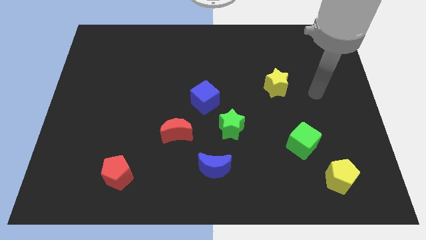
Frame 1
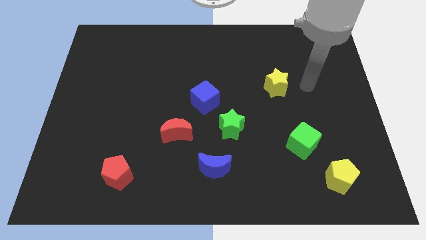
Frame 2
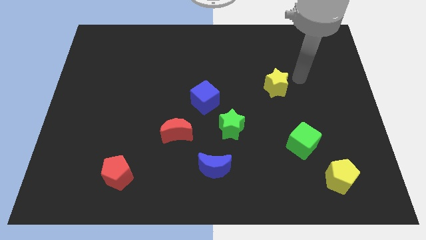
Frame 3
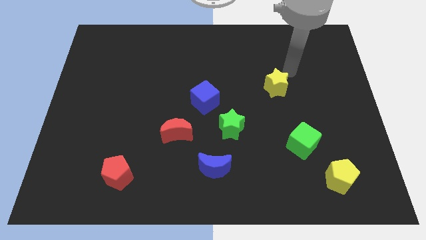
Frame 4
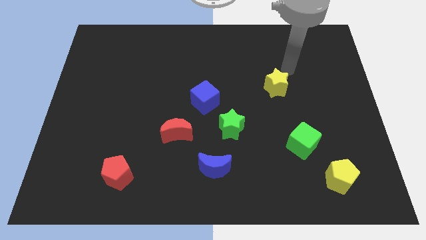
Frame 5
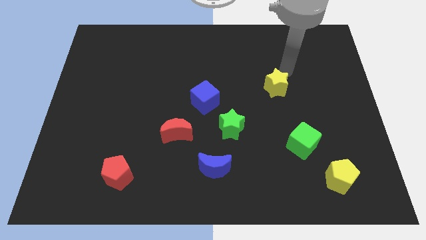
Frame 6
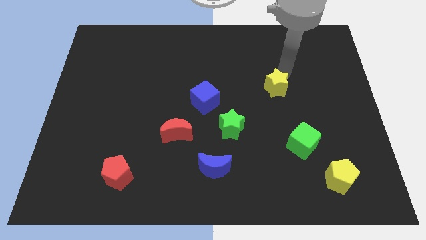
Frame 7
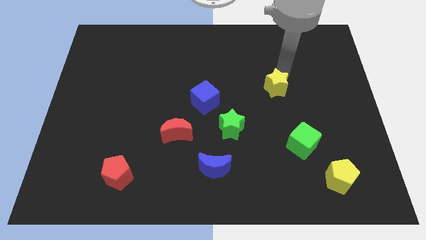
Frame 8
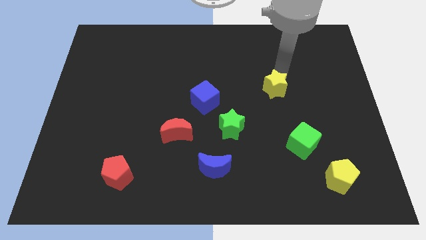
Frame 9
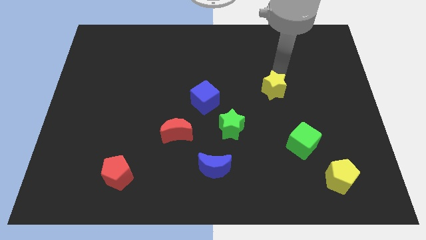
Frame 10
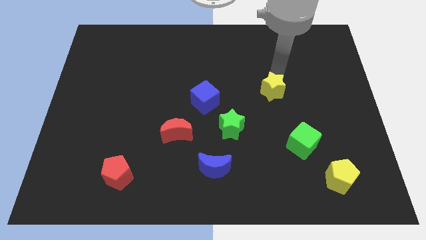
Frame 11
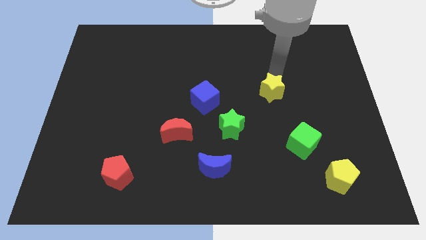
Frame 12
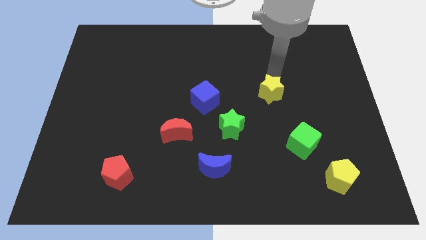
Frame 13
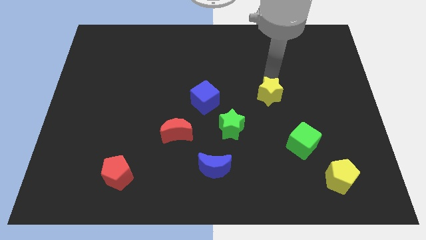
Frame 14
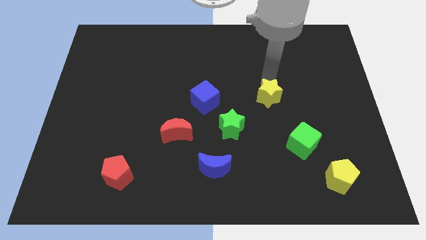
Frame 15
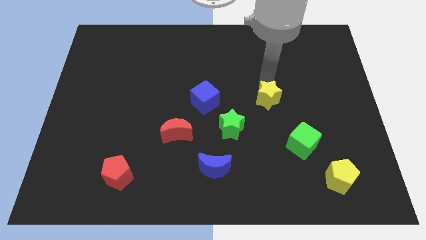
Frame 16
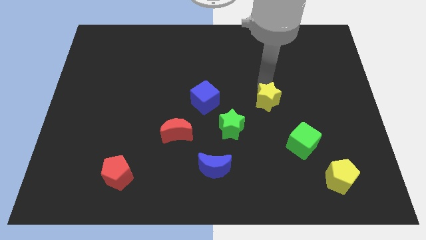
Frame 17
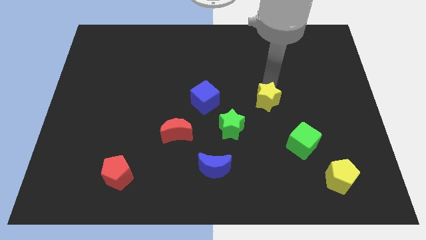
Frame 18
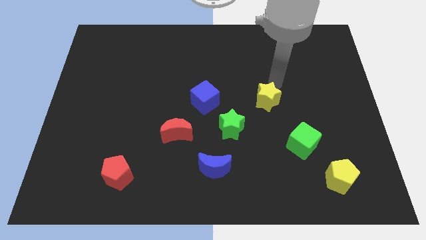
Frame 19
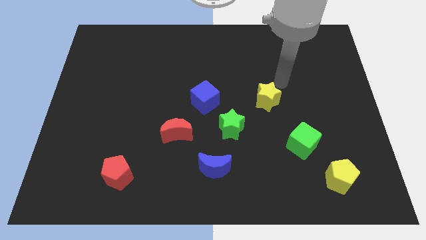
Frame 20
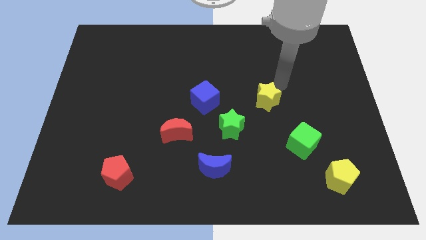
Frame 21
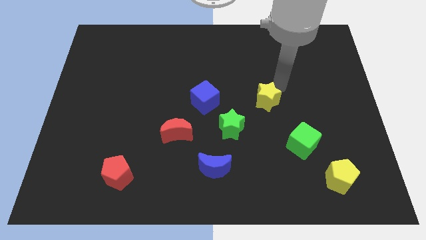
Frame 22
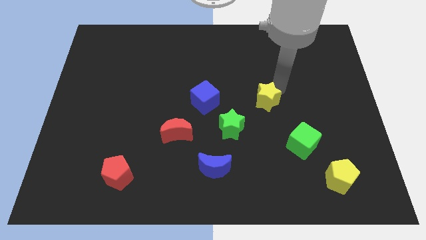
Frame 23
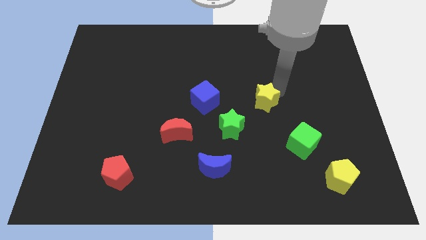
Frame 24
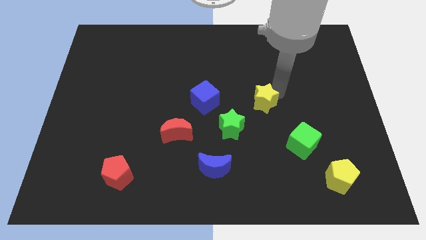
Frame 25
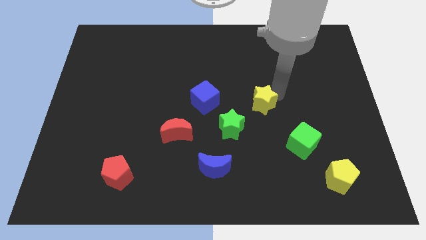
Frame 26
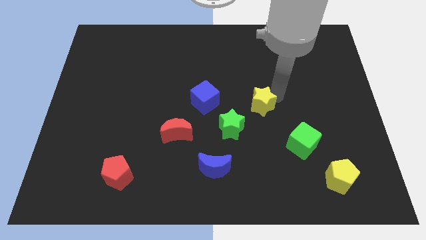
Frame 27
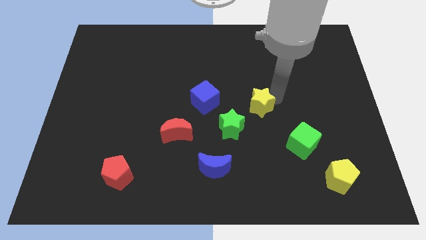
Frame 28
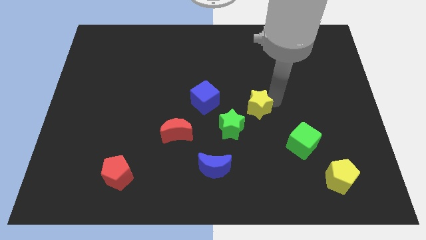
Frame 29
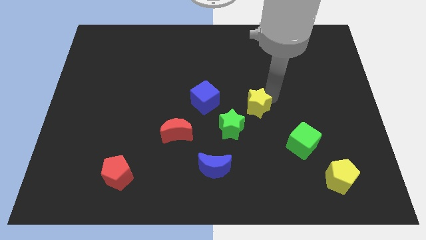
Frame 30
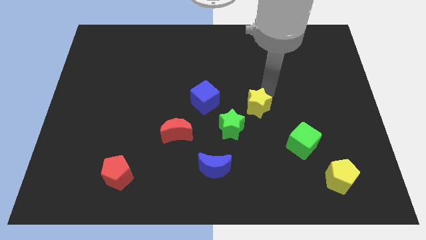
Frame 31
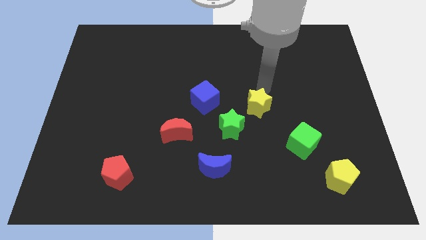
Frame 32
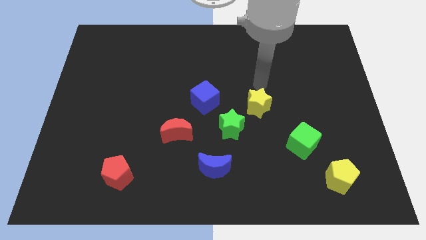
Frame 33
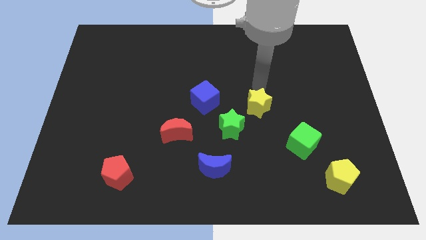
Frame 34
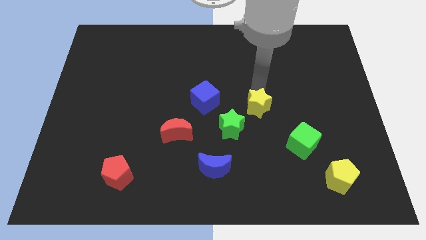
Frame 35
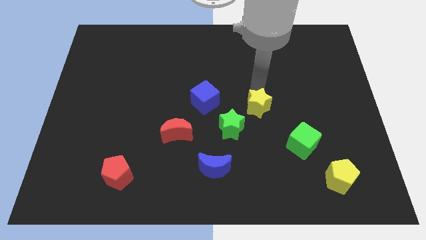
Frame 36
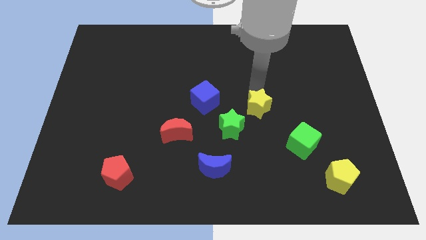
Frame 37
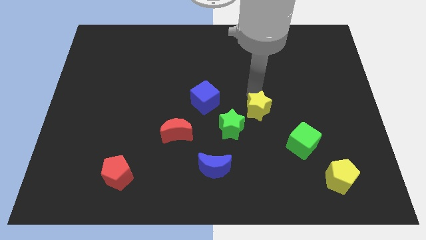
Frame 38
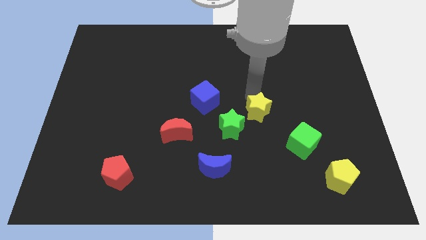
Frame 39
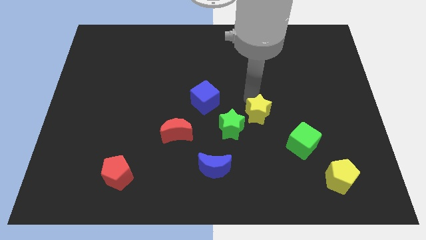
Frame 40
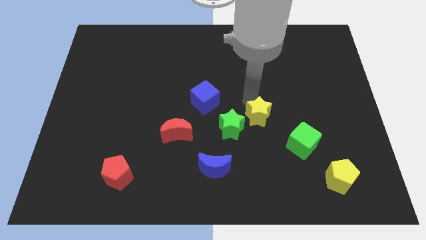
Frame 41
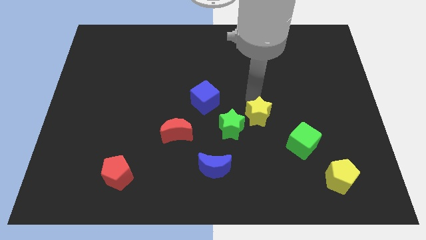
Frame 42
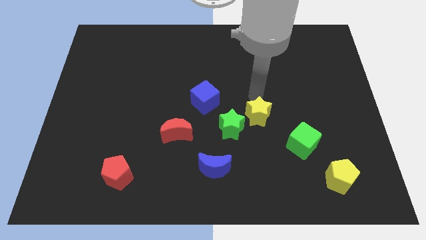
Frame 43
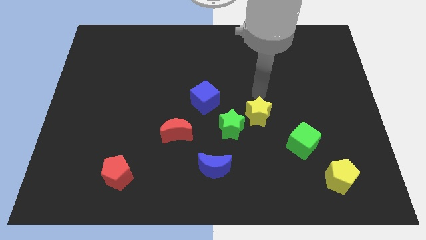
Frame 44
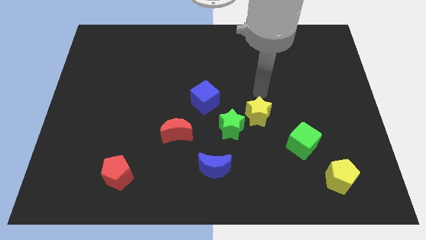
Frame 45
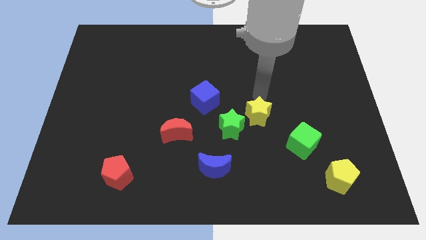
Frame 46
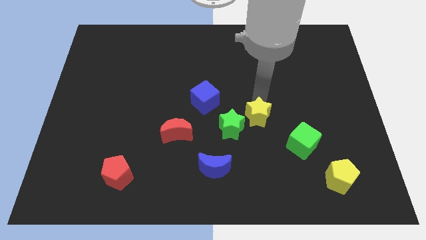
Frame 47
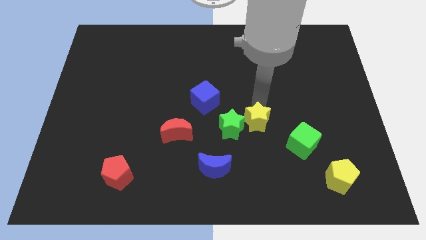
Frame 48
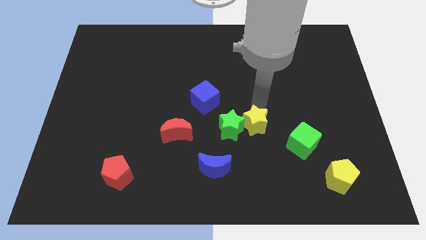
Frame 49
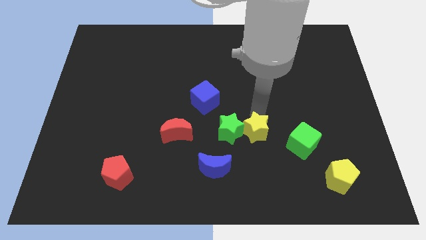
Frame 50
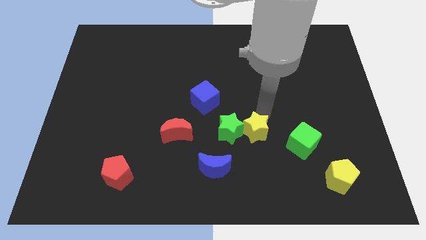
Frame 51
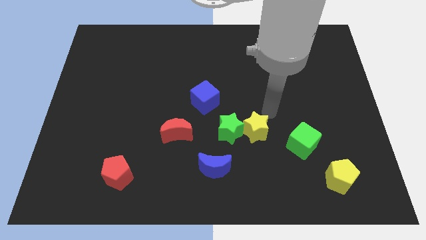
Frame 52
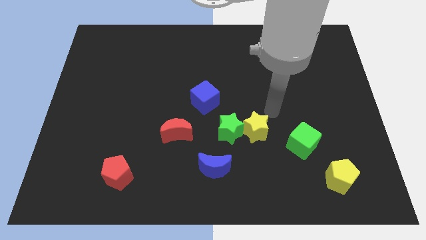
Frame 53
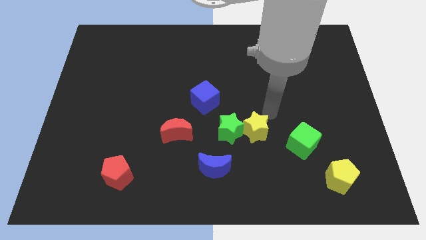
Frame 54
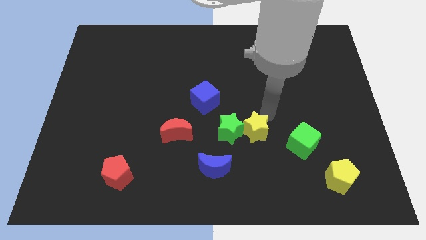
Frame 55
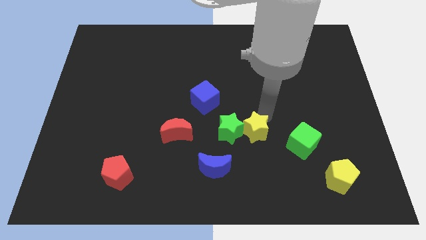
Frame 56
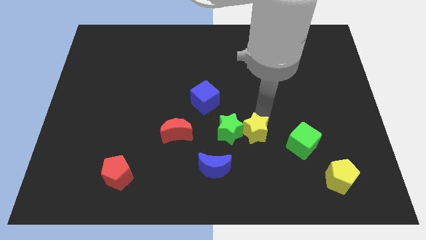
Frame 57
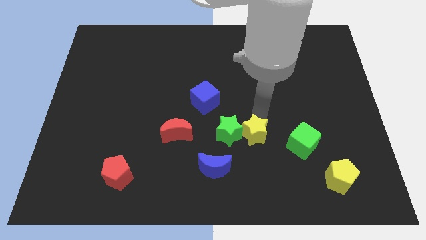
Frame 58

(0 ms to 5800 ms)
push the yellow star to the top right side of the blue moon

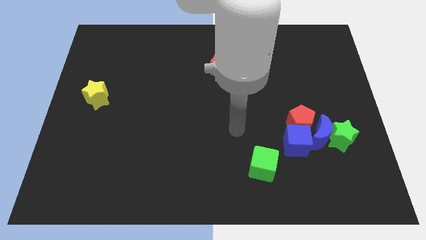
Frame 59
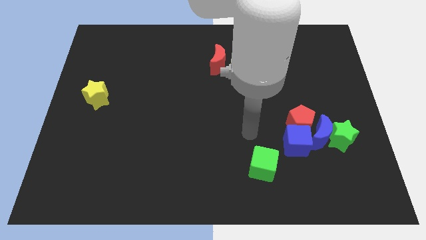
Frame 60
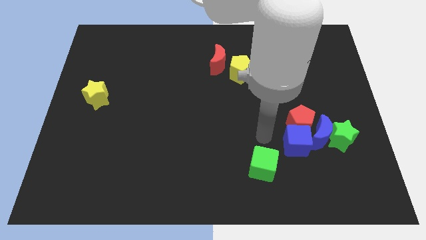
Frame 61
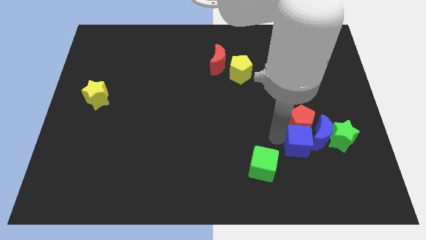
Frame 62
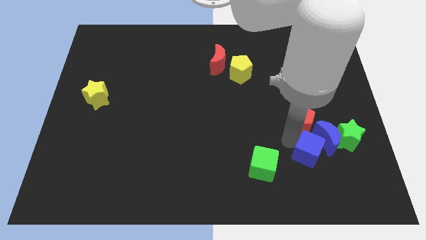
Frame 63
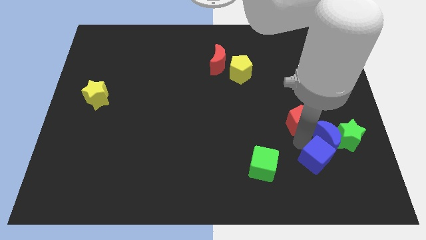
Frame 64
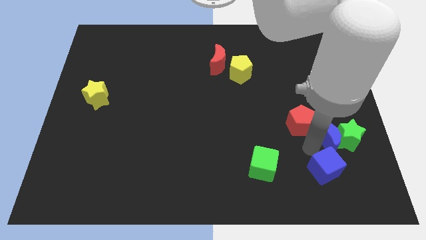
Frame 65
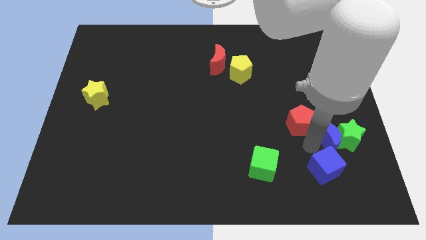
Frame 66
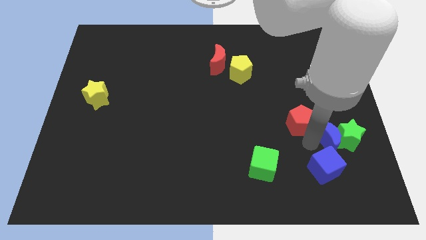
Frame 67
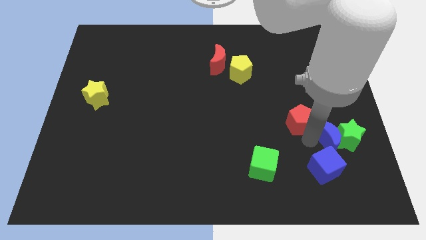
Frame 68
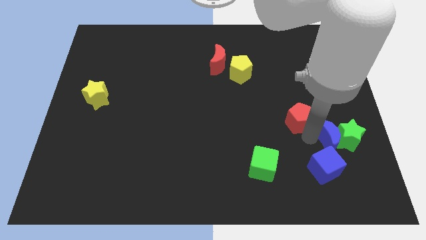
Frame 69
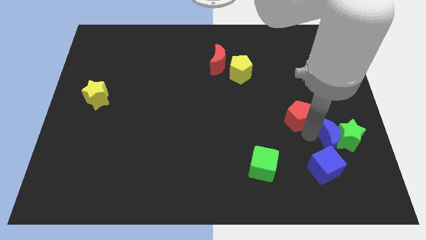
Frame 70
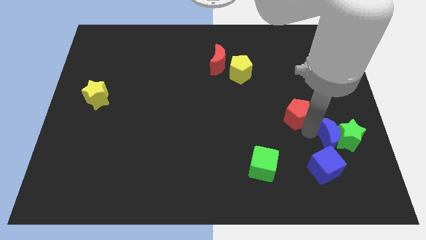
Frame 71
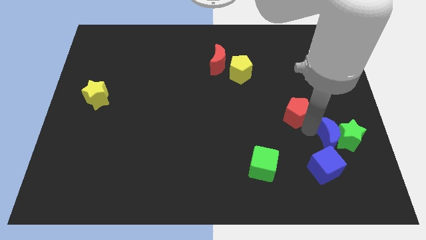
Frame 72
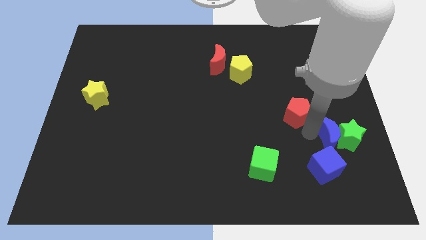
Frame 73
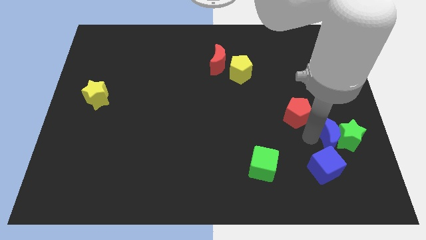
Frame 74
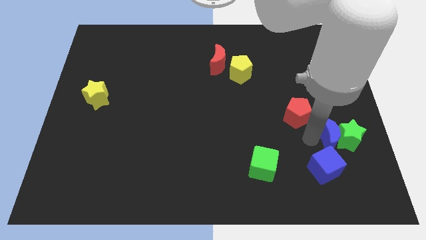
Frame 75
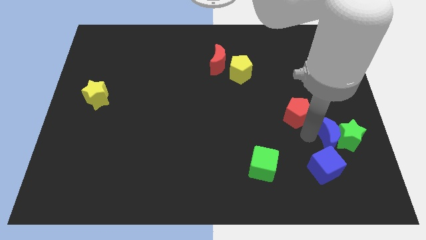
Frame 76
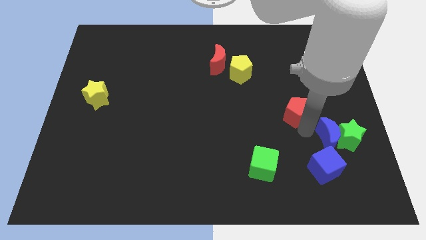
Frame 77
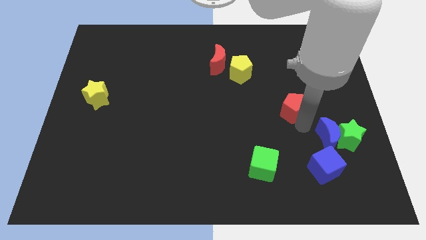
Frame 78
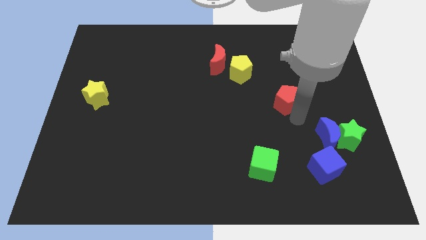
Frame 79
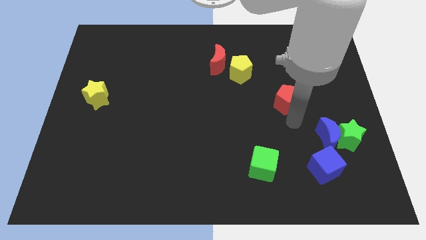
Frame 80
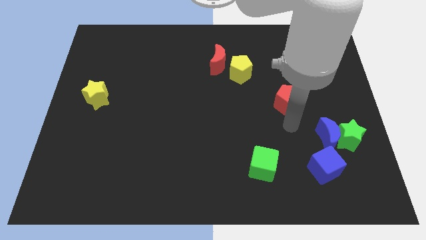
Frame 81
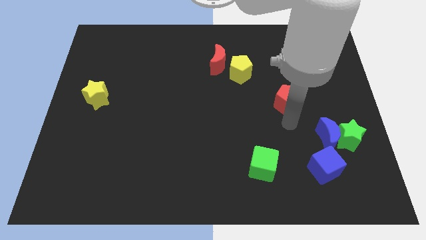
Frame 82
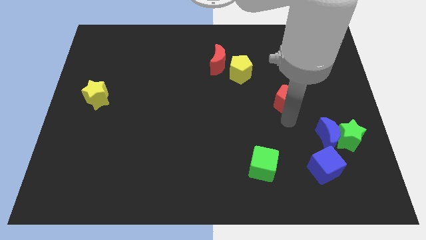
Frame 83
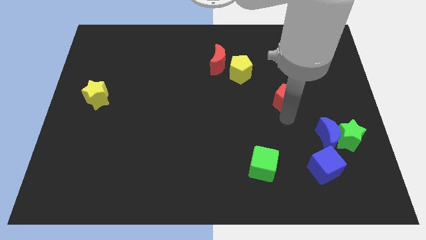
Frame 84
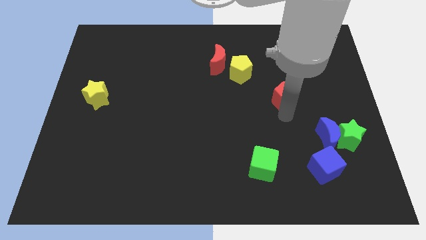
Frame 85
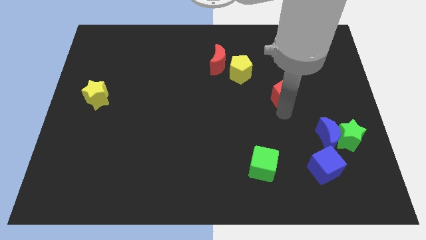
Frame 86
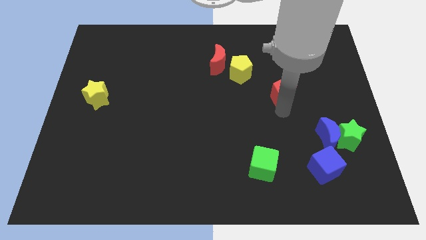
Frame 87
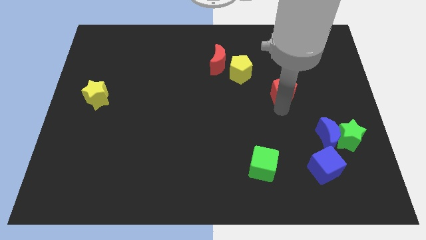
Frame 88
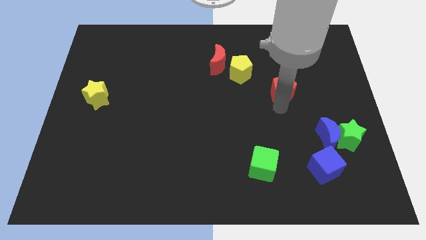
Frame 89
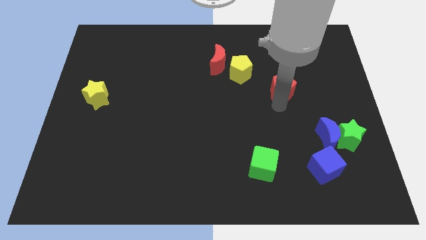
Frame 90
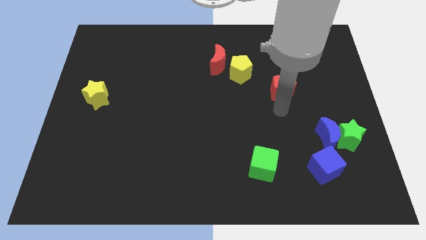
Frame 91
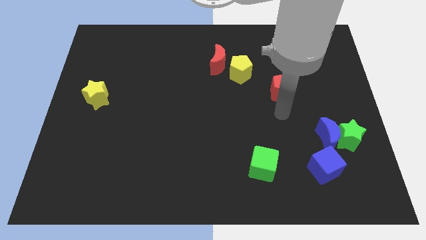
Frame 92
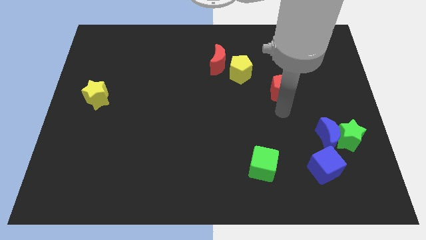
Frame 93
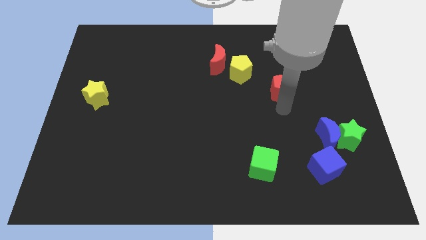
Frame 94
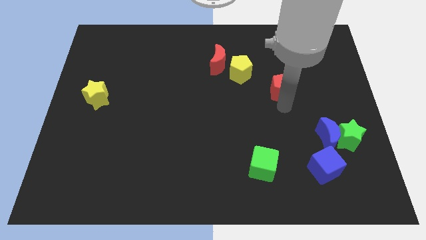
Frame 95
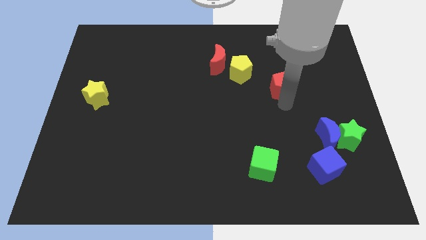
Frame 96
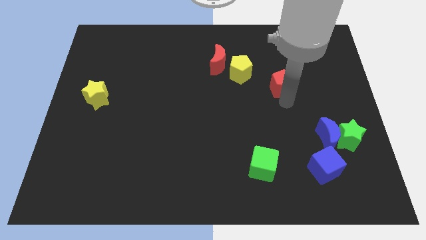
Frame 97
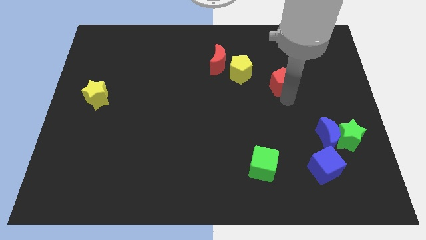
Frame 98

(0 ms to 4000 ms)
push the red pentagon to the right of the yellow pentagon
